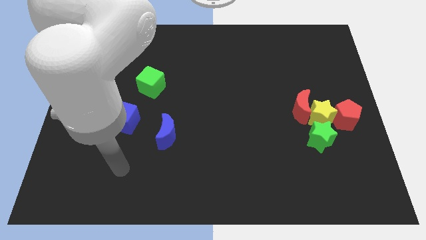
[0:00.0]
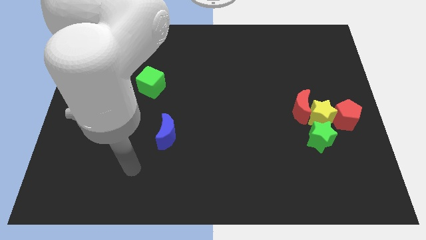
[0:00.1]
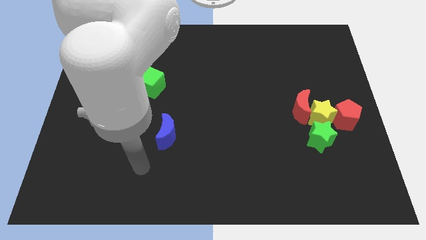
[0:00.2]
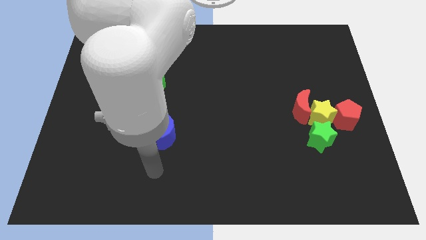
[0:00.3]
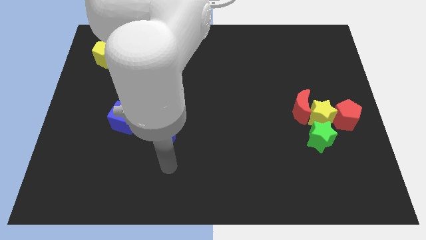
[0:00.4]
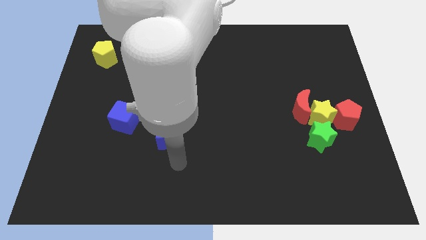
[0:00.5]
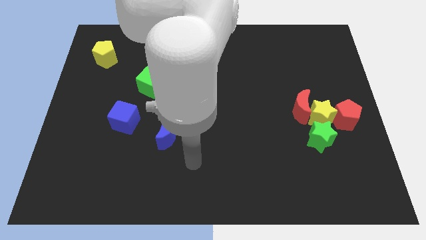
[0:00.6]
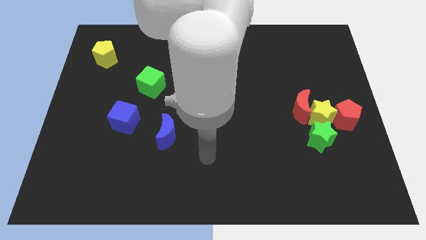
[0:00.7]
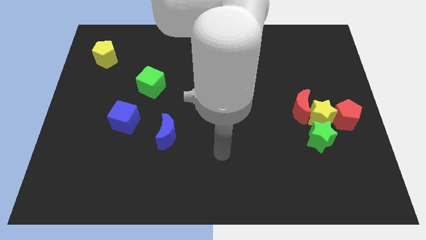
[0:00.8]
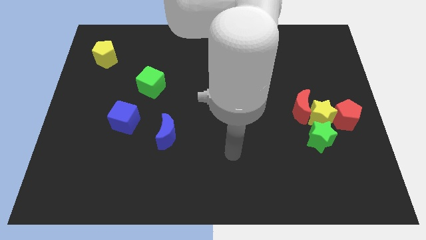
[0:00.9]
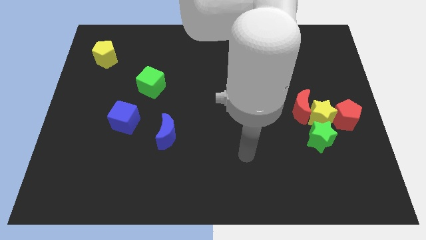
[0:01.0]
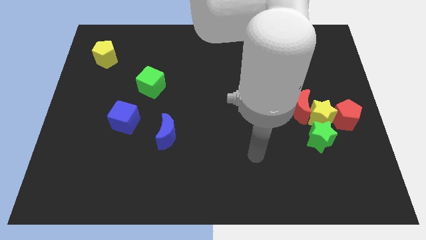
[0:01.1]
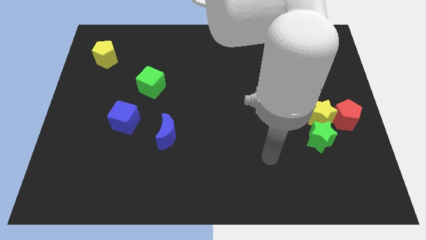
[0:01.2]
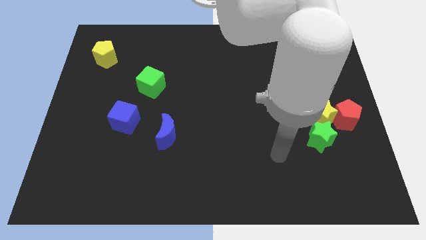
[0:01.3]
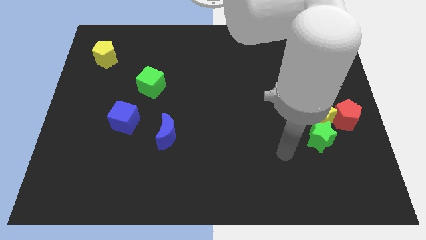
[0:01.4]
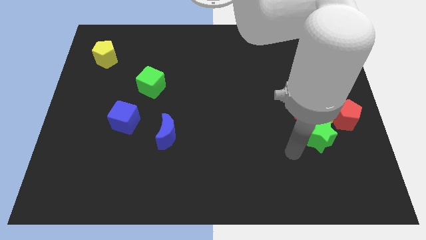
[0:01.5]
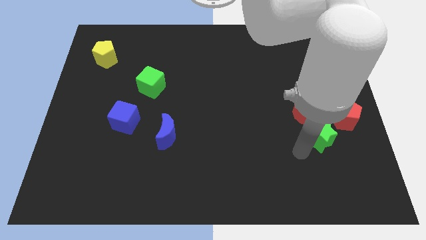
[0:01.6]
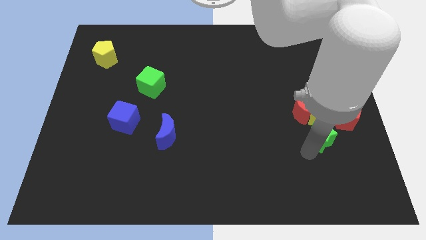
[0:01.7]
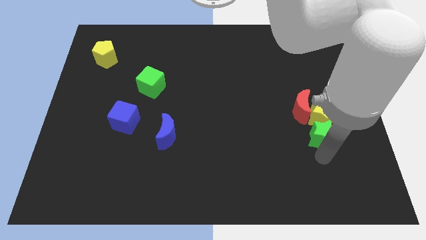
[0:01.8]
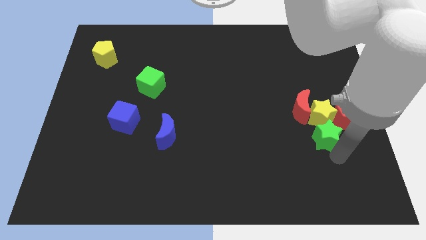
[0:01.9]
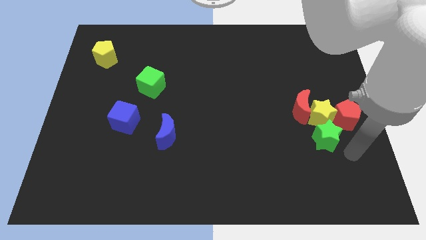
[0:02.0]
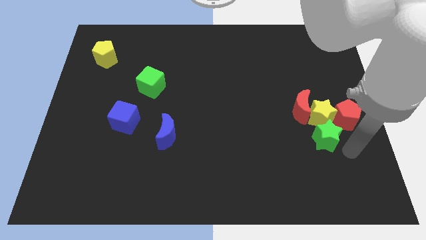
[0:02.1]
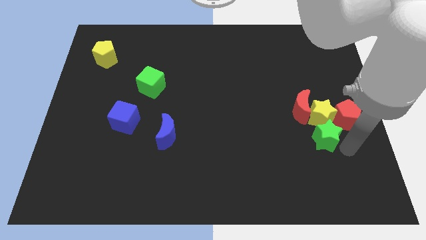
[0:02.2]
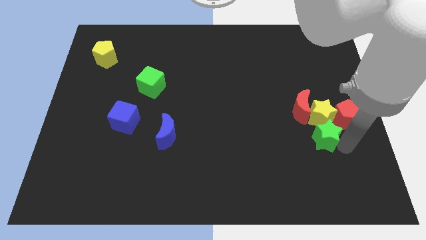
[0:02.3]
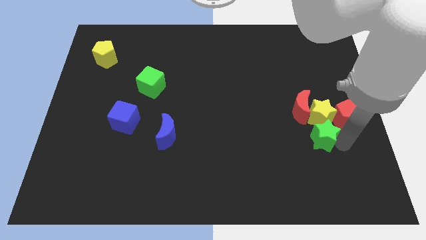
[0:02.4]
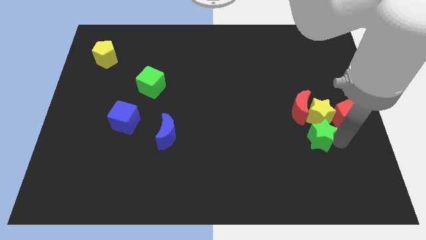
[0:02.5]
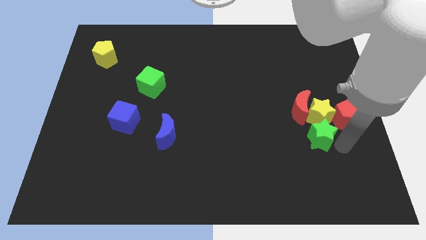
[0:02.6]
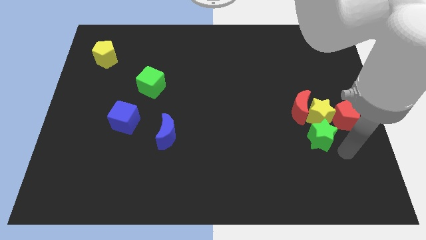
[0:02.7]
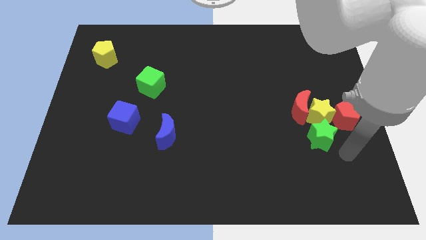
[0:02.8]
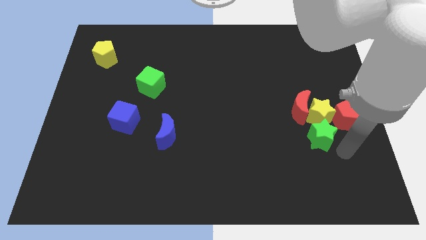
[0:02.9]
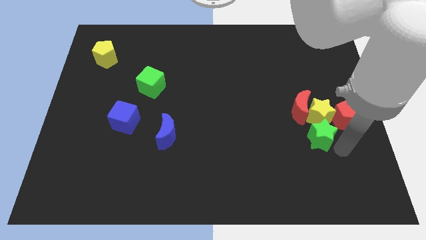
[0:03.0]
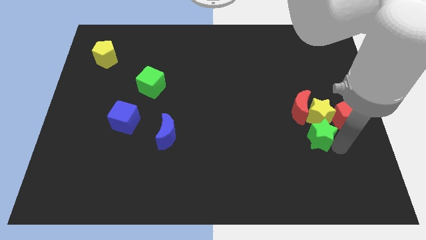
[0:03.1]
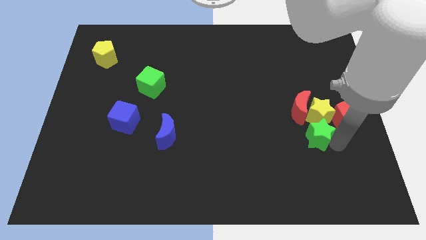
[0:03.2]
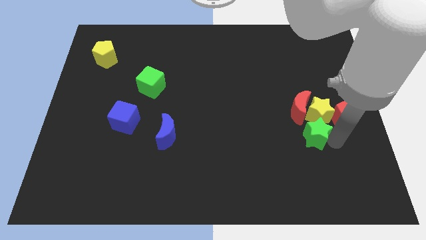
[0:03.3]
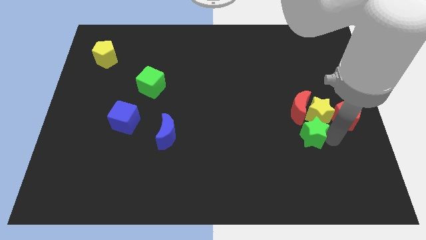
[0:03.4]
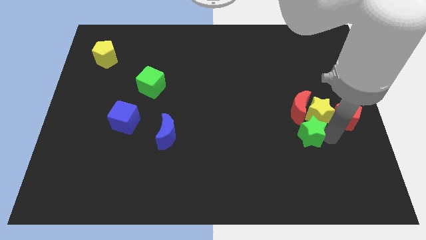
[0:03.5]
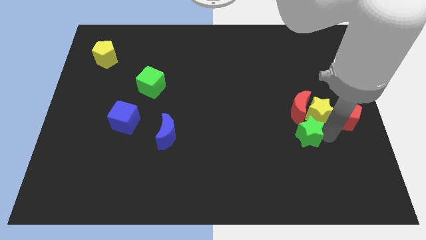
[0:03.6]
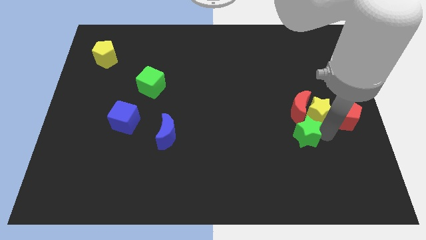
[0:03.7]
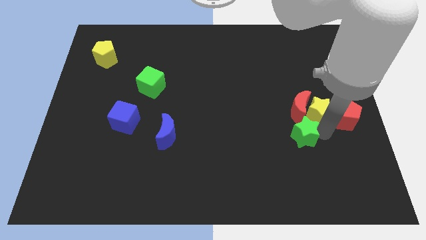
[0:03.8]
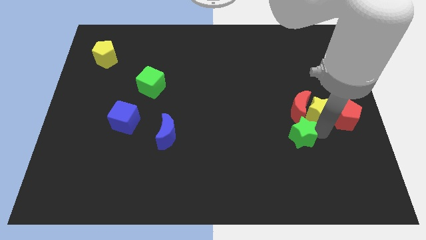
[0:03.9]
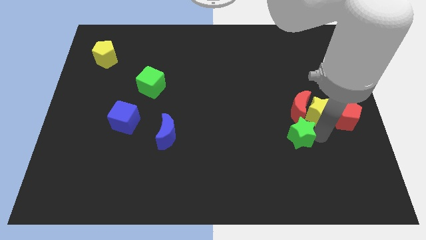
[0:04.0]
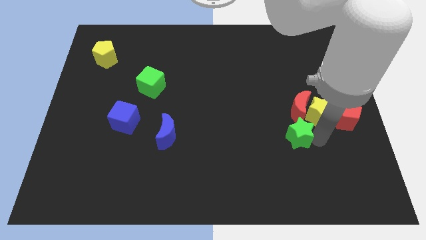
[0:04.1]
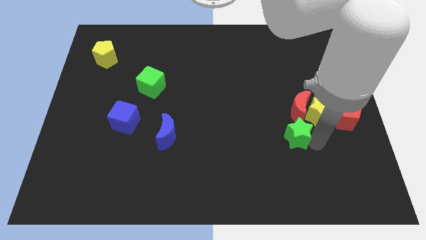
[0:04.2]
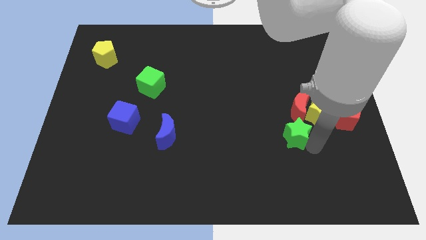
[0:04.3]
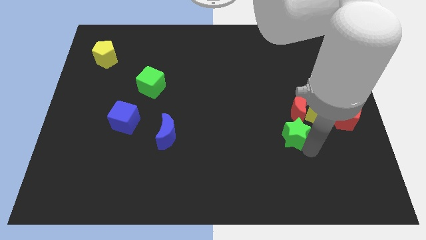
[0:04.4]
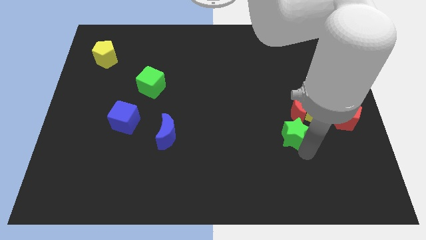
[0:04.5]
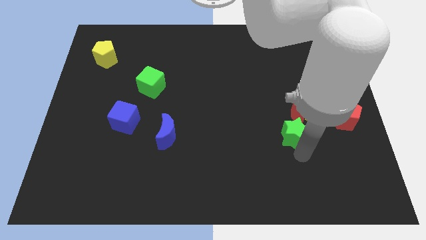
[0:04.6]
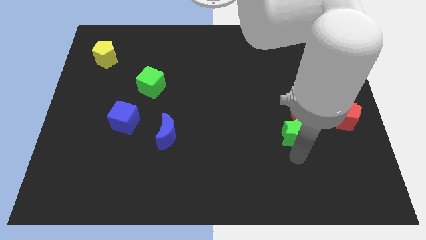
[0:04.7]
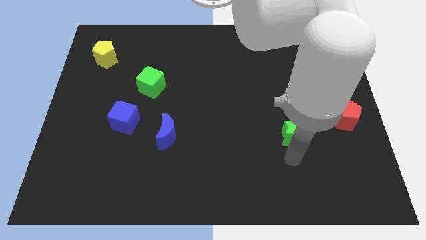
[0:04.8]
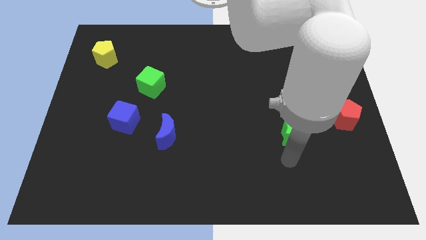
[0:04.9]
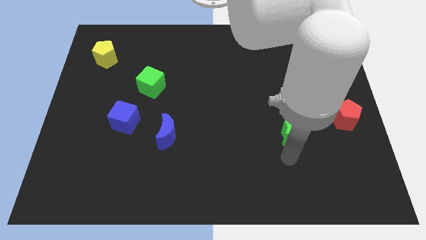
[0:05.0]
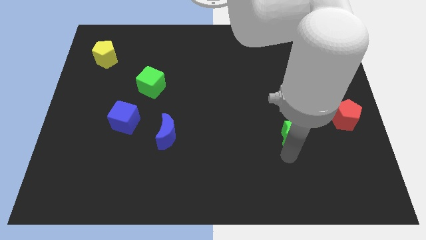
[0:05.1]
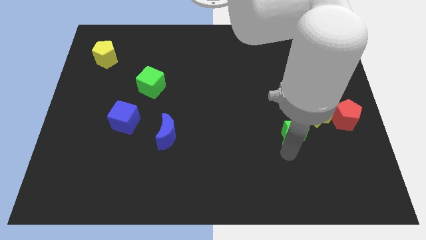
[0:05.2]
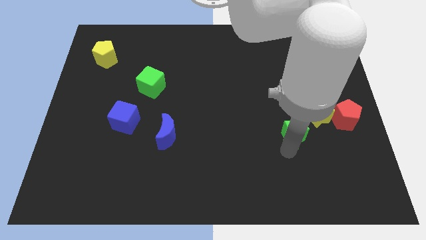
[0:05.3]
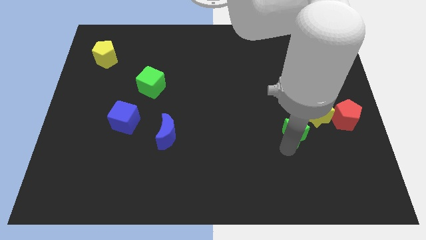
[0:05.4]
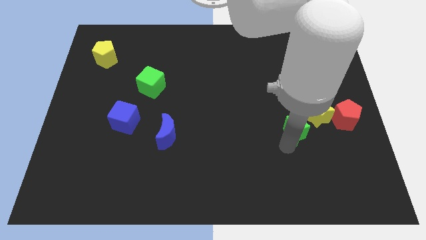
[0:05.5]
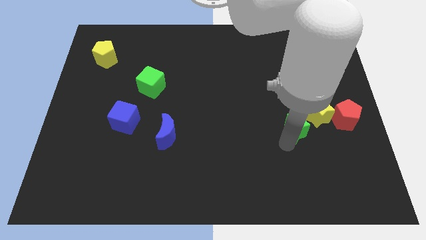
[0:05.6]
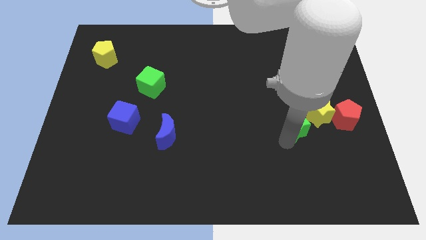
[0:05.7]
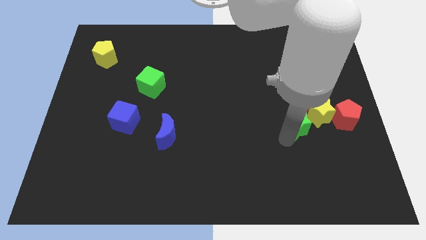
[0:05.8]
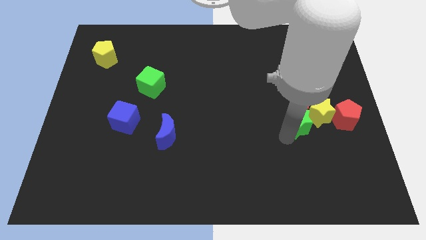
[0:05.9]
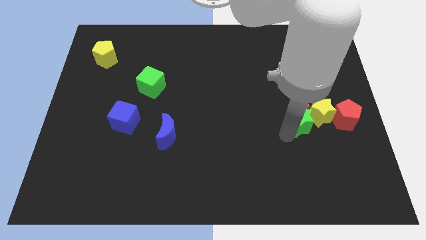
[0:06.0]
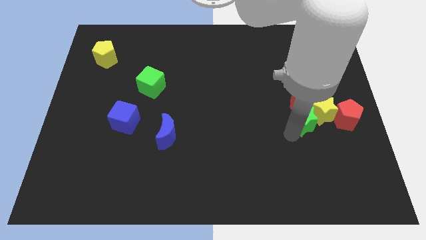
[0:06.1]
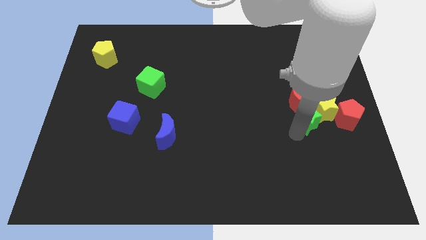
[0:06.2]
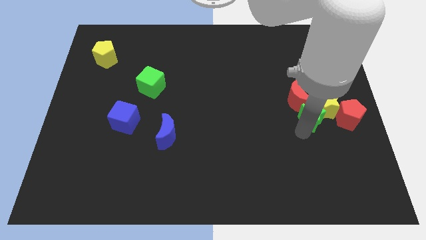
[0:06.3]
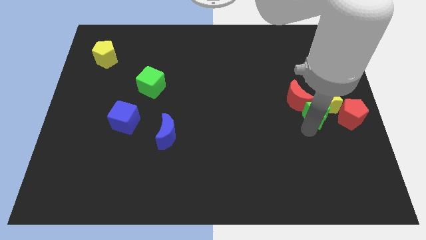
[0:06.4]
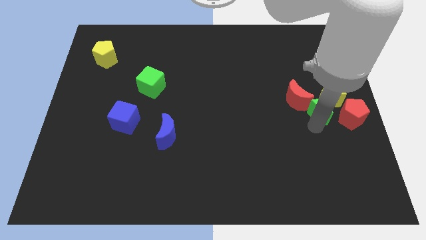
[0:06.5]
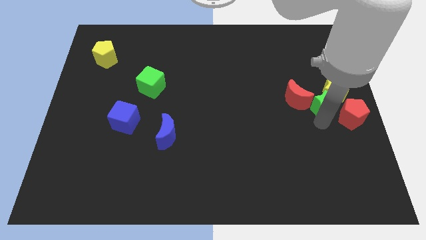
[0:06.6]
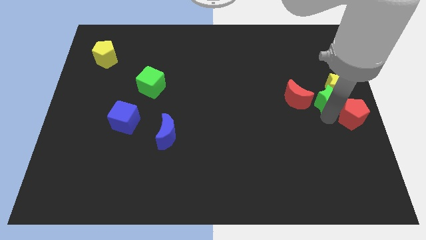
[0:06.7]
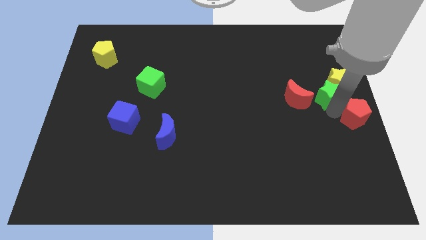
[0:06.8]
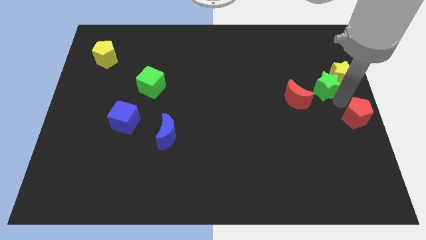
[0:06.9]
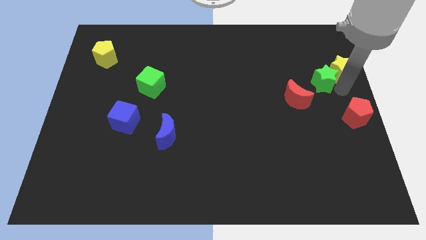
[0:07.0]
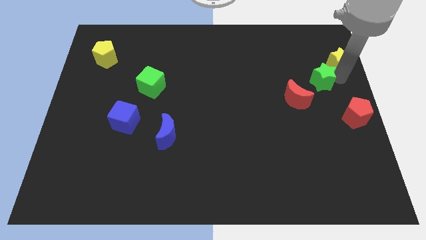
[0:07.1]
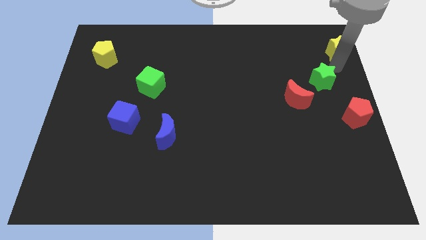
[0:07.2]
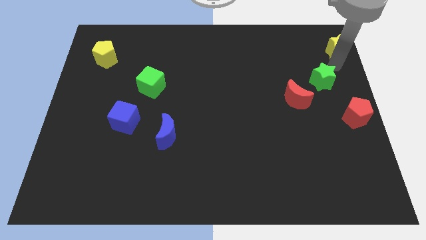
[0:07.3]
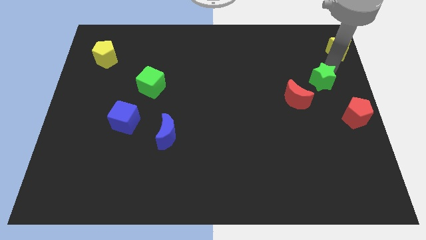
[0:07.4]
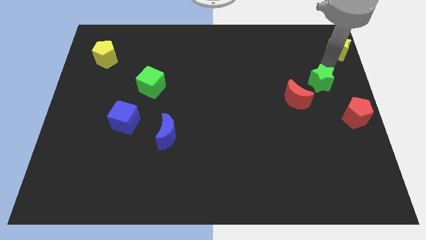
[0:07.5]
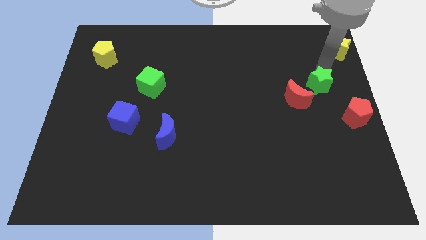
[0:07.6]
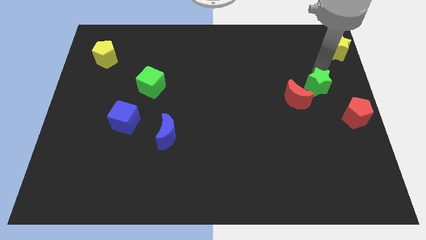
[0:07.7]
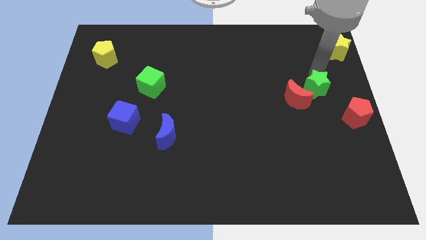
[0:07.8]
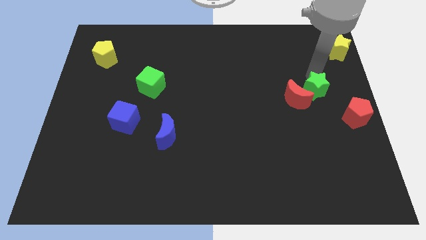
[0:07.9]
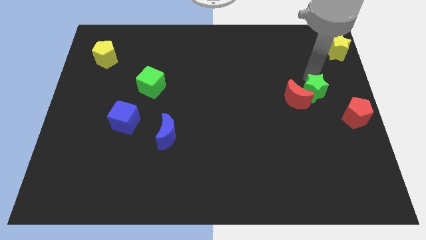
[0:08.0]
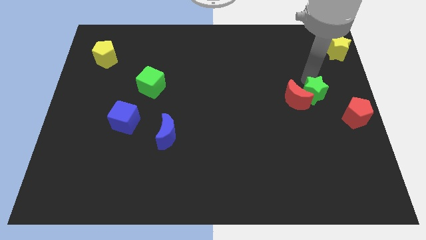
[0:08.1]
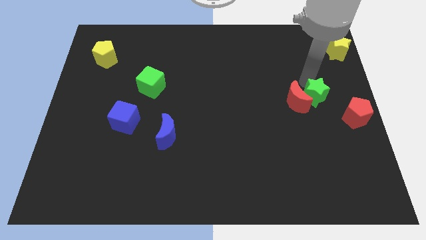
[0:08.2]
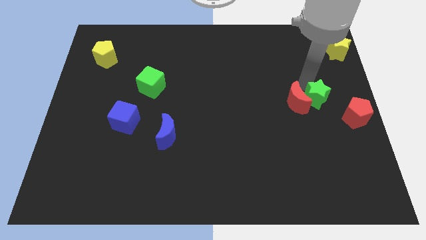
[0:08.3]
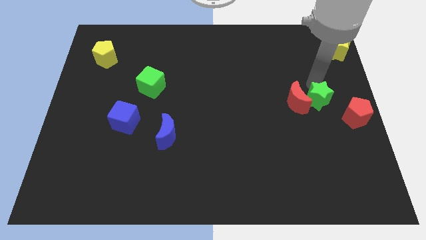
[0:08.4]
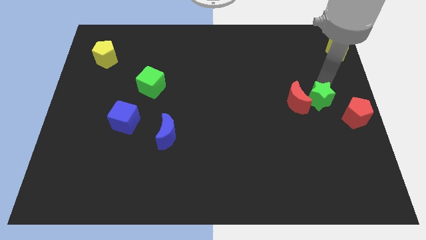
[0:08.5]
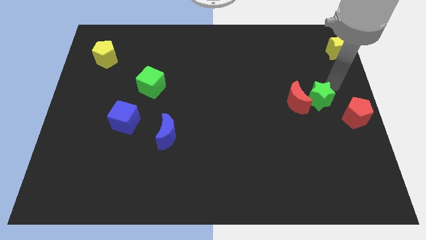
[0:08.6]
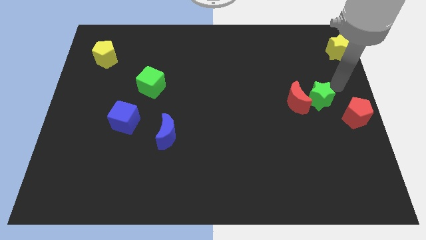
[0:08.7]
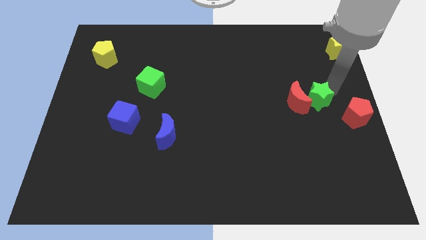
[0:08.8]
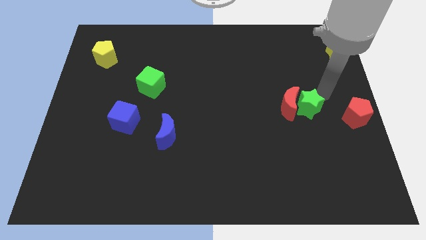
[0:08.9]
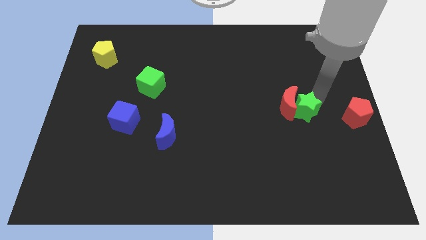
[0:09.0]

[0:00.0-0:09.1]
slide the green star diagonally up and left a bit
